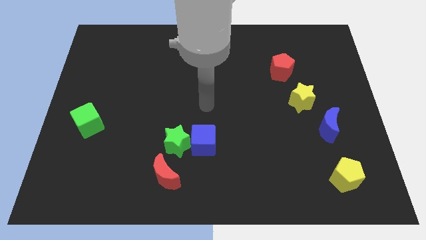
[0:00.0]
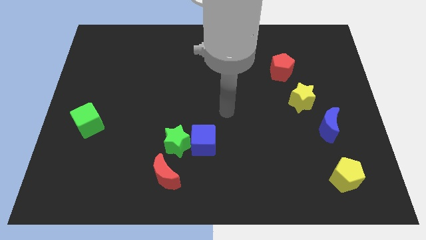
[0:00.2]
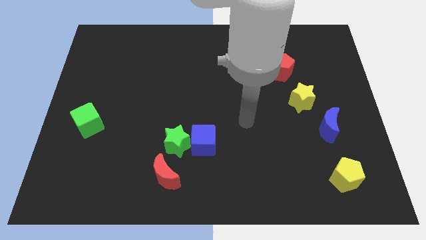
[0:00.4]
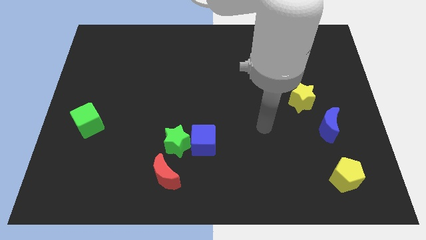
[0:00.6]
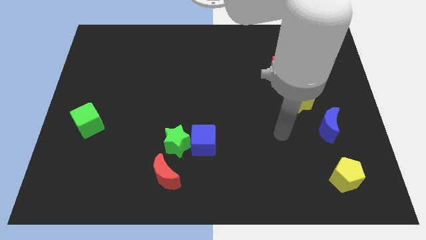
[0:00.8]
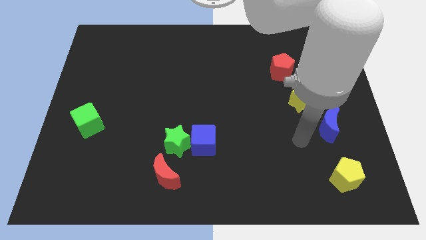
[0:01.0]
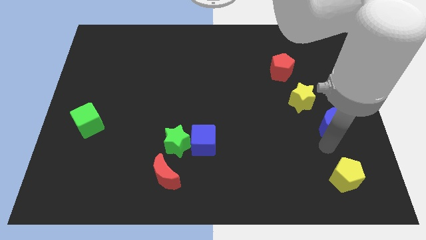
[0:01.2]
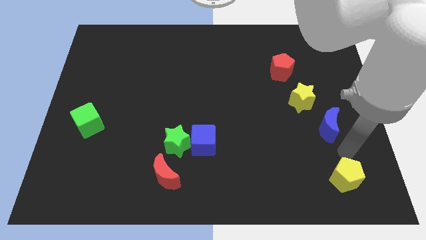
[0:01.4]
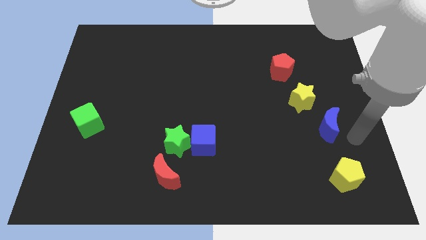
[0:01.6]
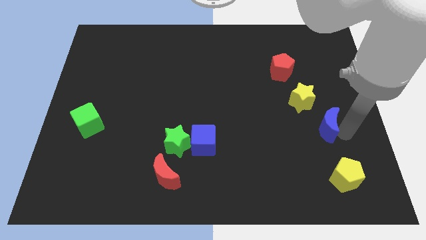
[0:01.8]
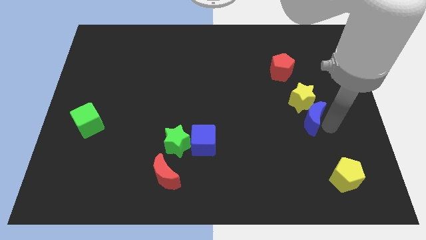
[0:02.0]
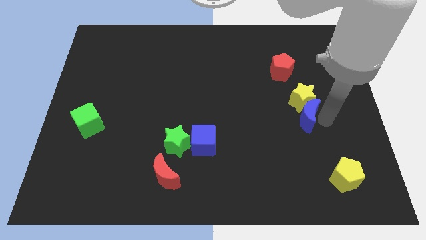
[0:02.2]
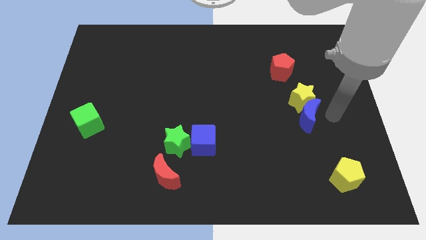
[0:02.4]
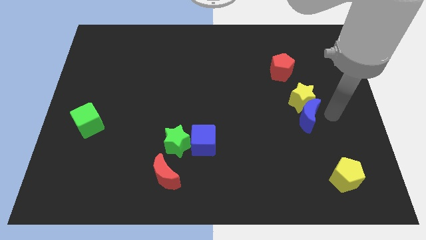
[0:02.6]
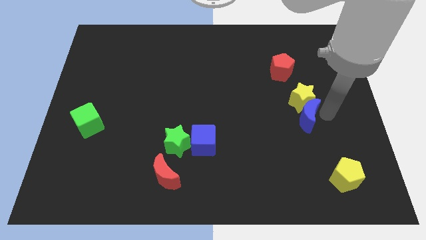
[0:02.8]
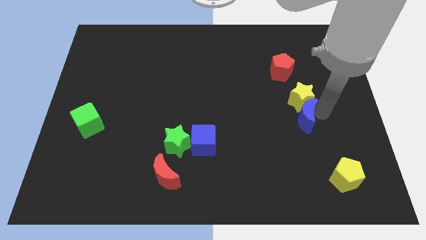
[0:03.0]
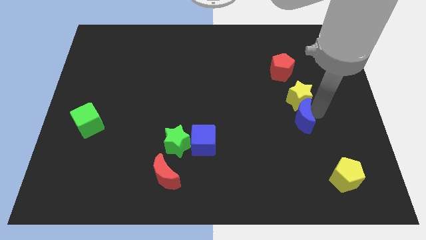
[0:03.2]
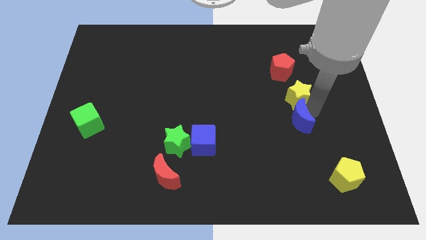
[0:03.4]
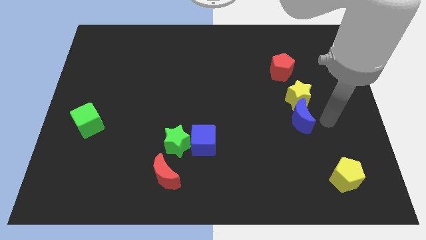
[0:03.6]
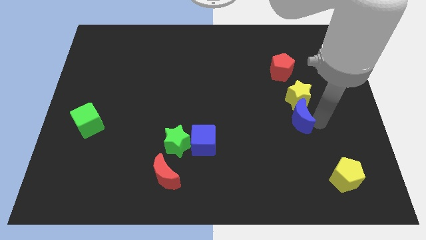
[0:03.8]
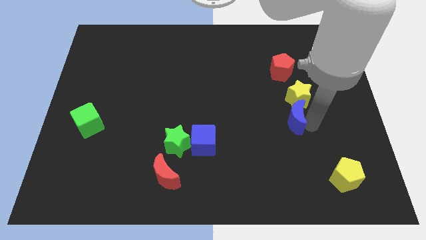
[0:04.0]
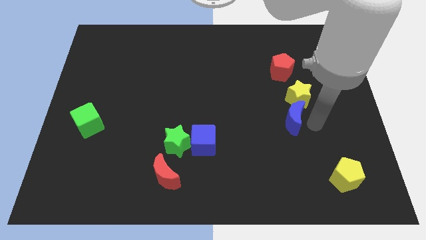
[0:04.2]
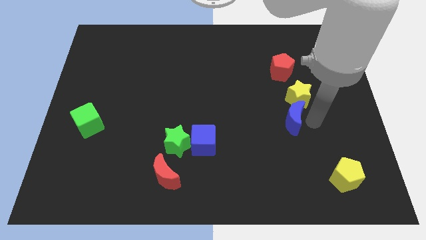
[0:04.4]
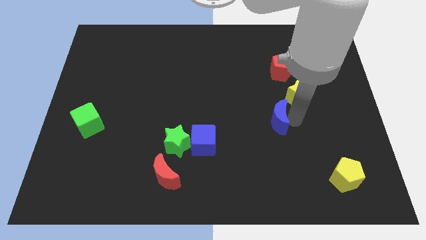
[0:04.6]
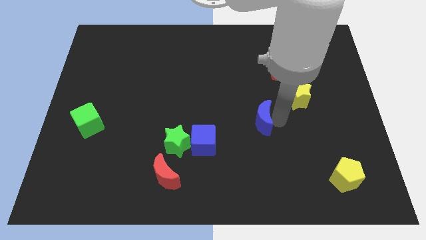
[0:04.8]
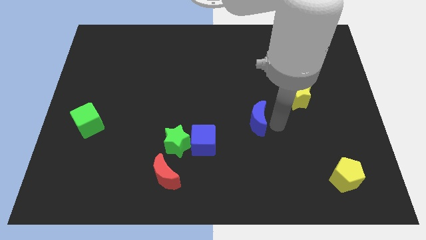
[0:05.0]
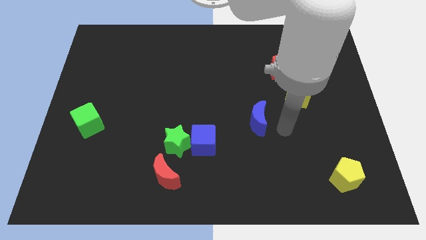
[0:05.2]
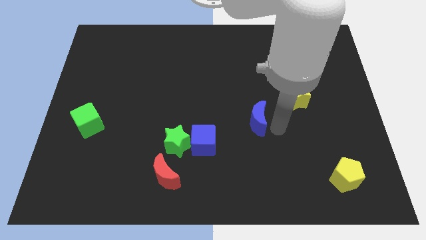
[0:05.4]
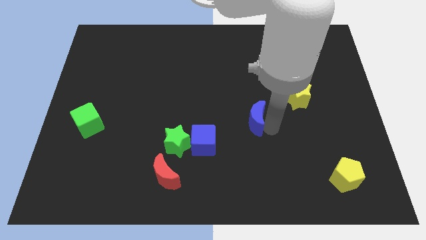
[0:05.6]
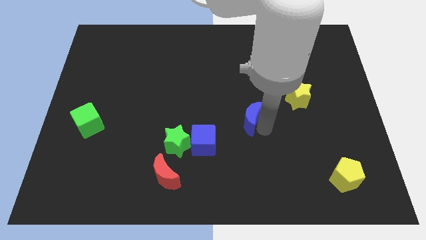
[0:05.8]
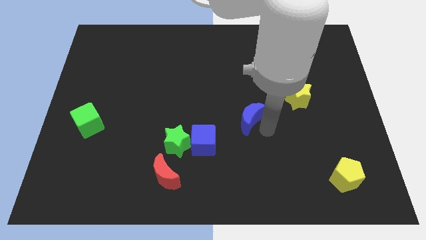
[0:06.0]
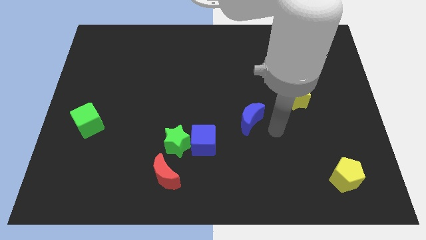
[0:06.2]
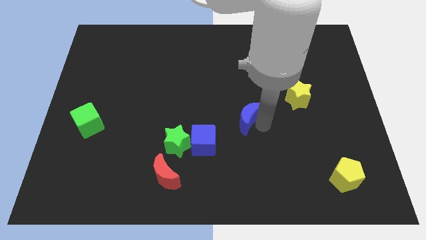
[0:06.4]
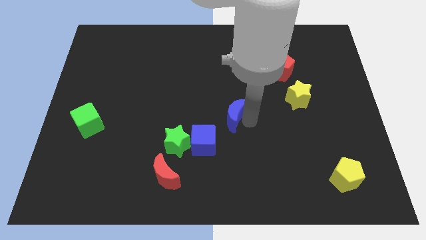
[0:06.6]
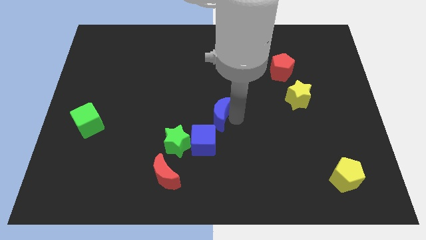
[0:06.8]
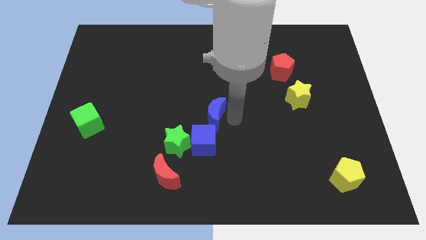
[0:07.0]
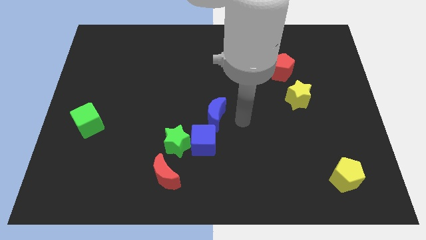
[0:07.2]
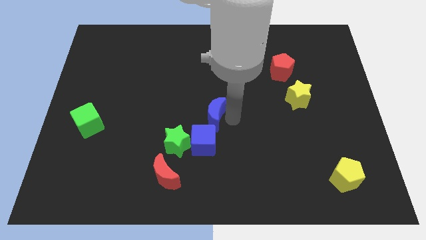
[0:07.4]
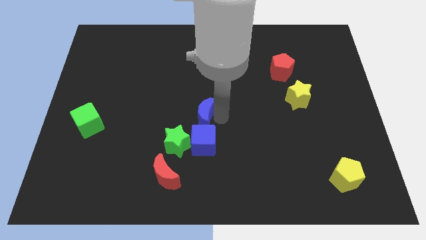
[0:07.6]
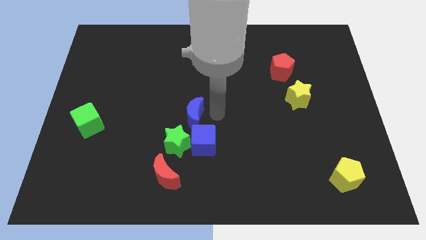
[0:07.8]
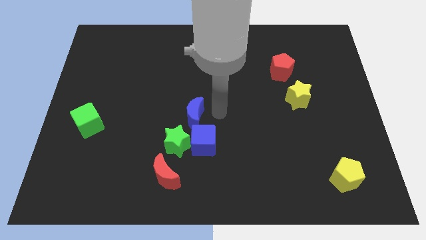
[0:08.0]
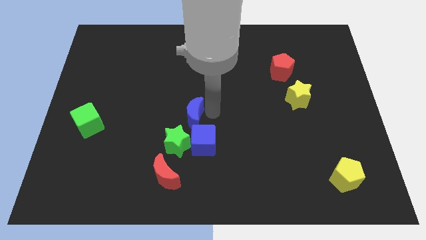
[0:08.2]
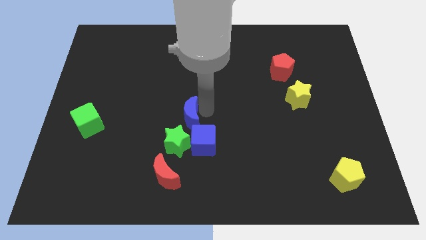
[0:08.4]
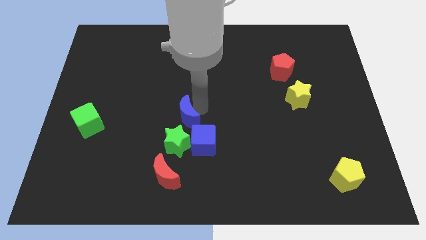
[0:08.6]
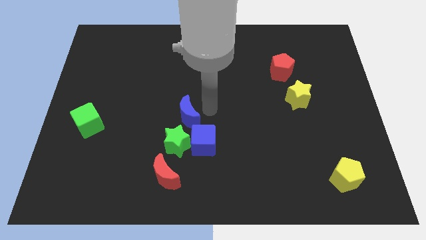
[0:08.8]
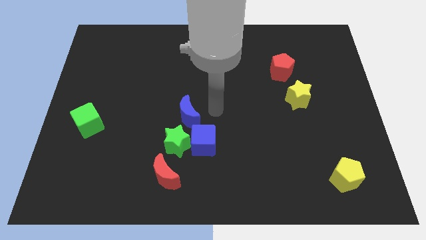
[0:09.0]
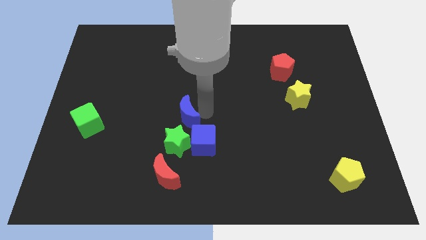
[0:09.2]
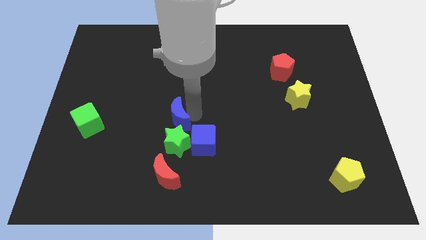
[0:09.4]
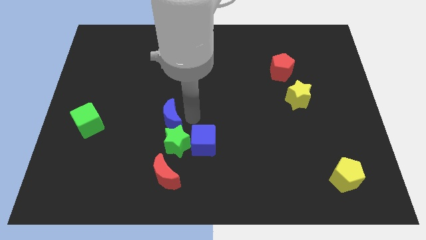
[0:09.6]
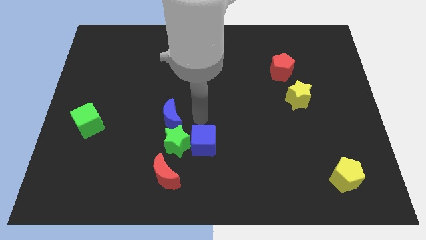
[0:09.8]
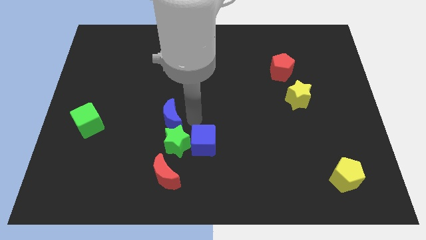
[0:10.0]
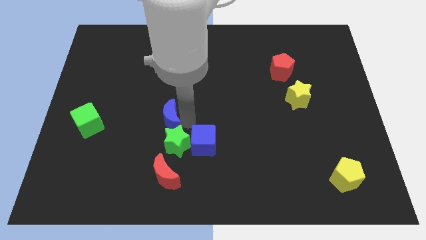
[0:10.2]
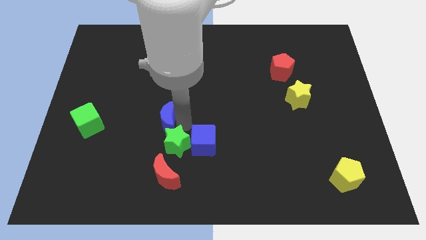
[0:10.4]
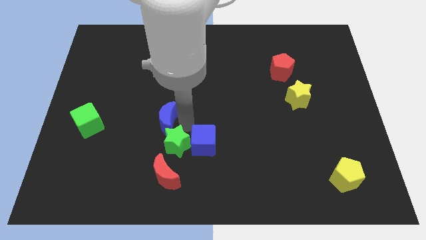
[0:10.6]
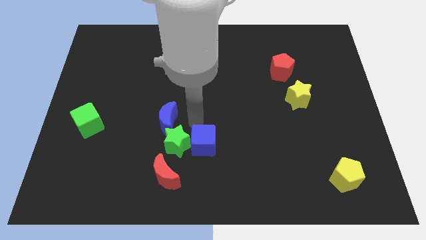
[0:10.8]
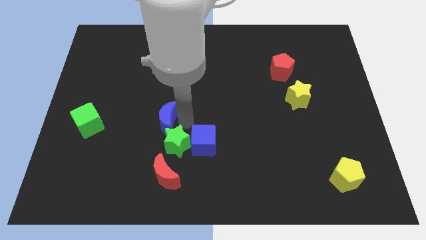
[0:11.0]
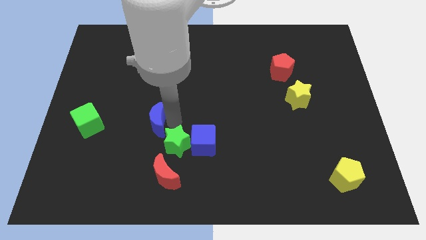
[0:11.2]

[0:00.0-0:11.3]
put the blue moon just right of the green cube

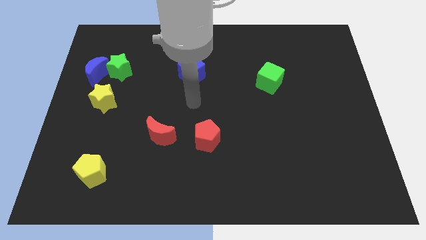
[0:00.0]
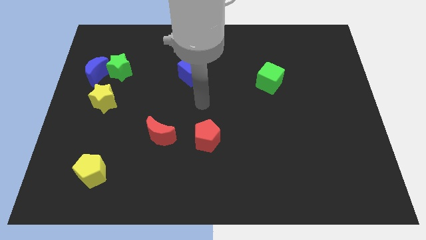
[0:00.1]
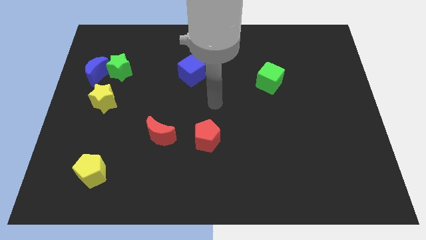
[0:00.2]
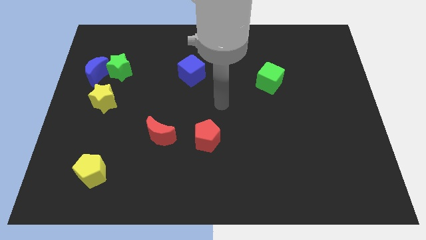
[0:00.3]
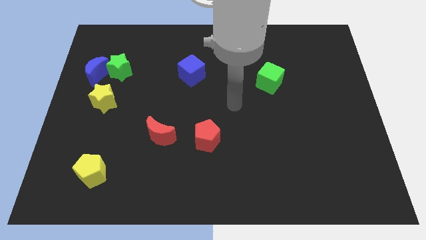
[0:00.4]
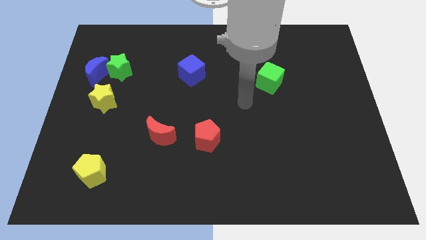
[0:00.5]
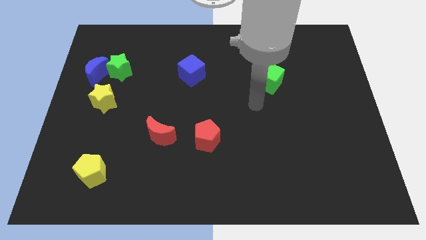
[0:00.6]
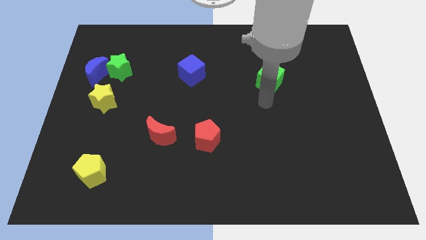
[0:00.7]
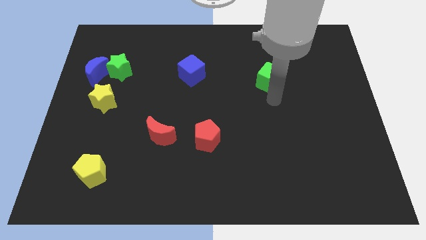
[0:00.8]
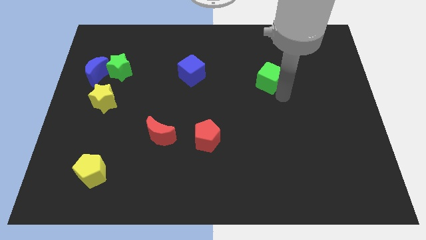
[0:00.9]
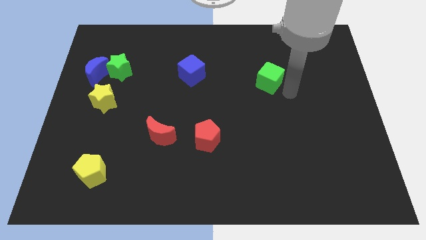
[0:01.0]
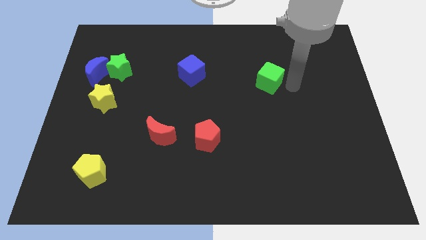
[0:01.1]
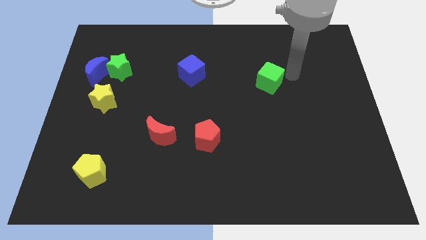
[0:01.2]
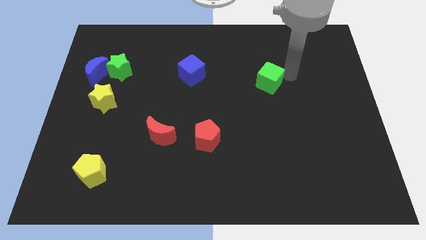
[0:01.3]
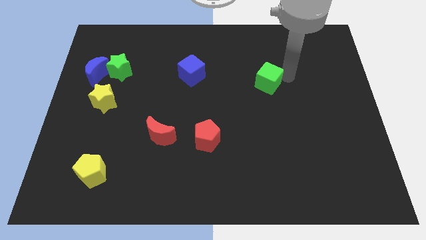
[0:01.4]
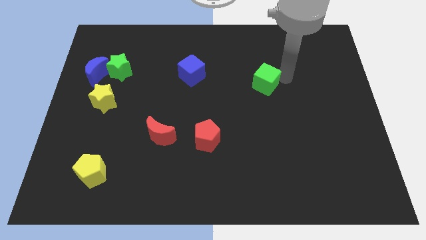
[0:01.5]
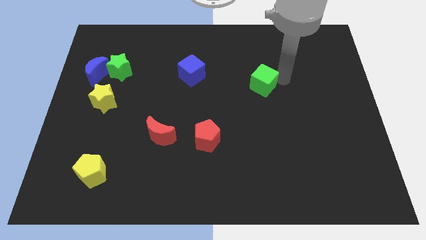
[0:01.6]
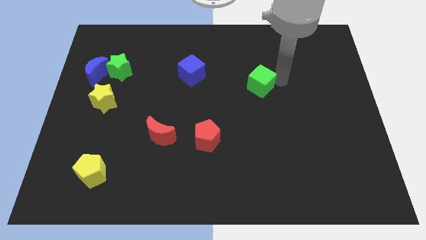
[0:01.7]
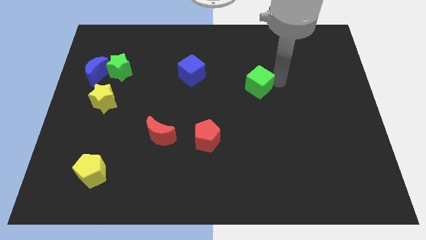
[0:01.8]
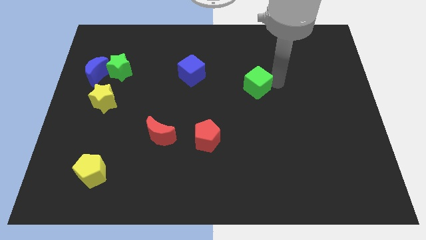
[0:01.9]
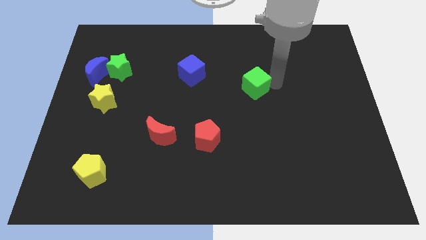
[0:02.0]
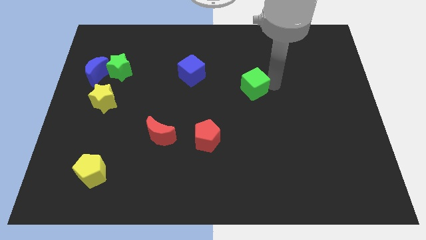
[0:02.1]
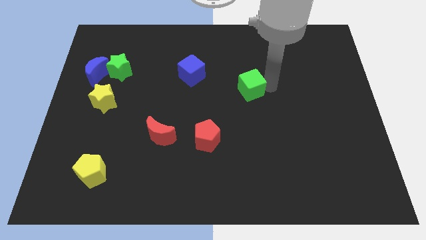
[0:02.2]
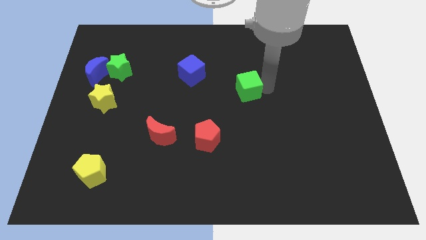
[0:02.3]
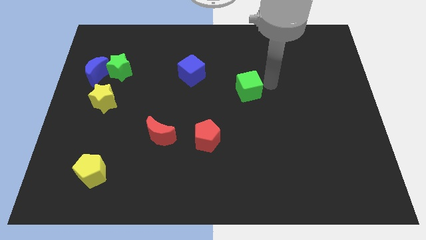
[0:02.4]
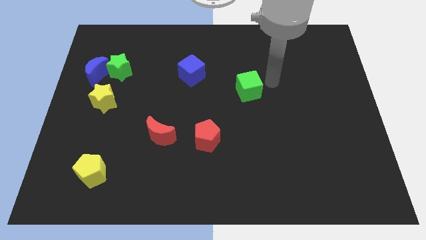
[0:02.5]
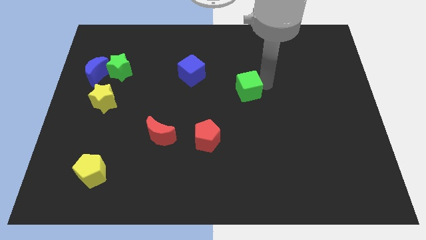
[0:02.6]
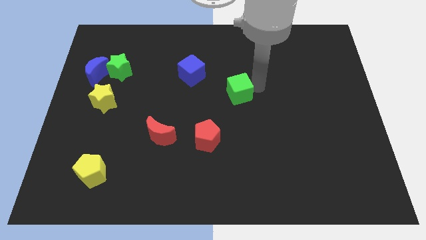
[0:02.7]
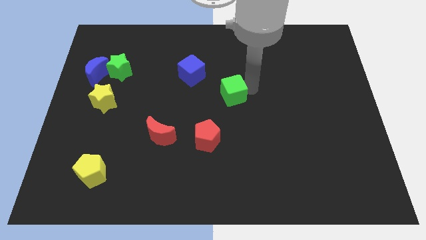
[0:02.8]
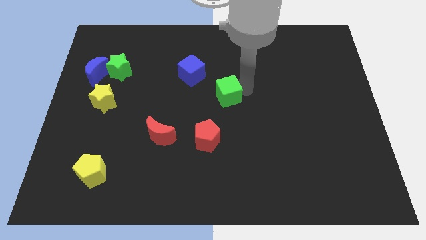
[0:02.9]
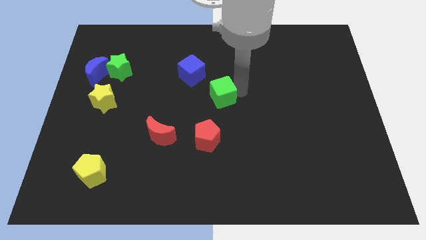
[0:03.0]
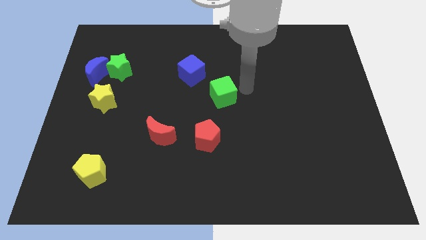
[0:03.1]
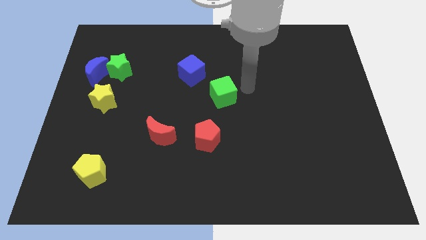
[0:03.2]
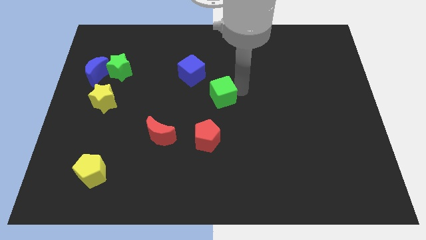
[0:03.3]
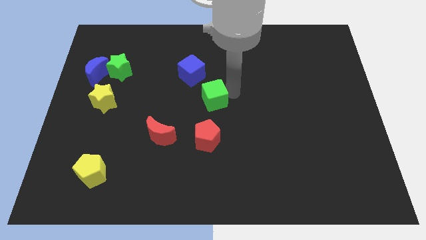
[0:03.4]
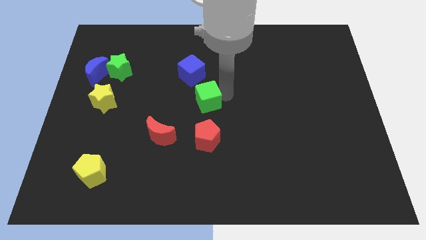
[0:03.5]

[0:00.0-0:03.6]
put the green cube below the blue cube
